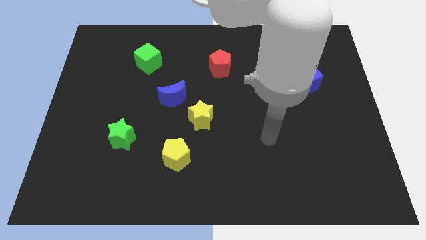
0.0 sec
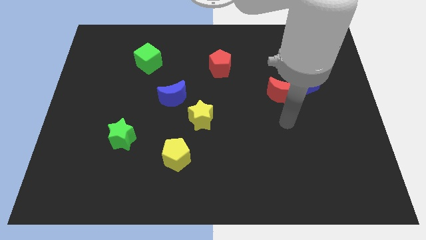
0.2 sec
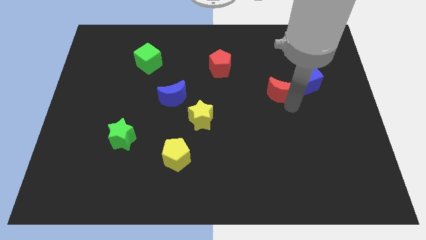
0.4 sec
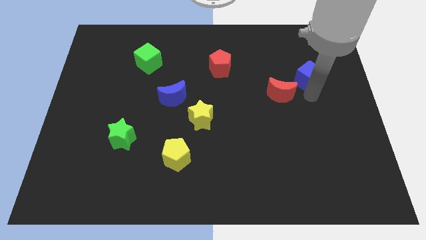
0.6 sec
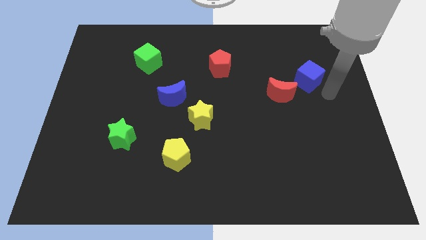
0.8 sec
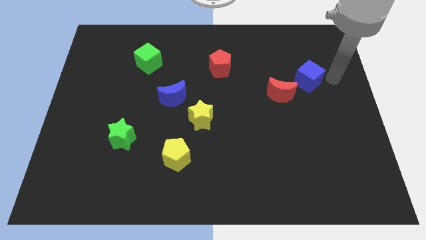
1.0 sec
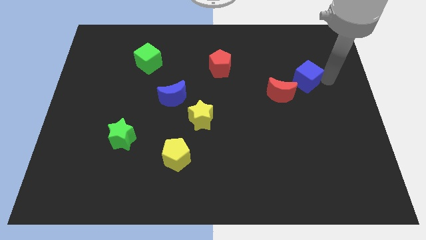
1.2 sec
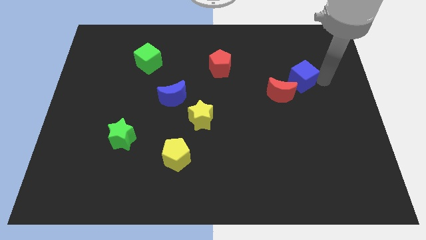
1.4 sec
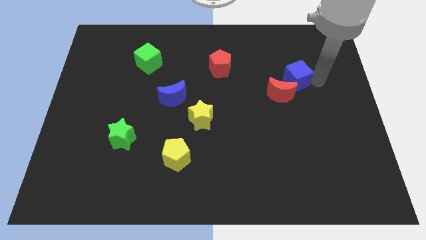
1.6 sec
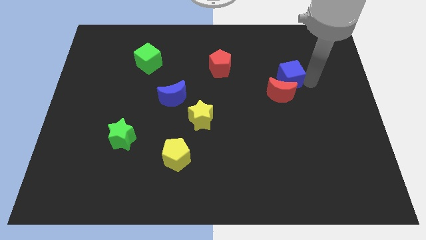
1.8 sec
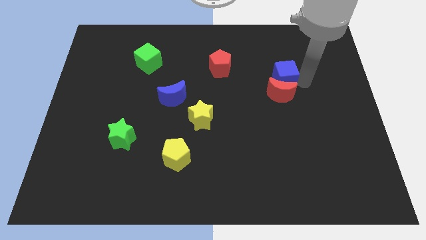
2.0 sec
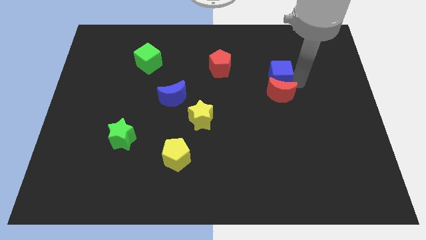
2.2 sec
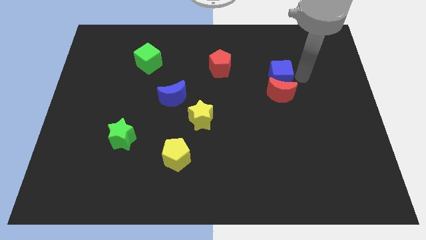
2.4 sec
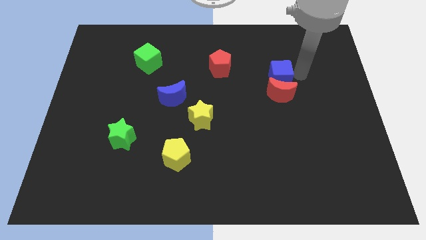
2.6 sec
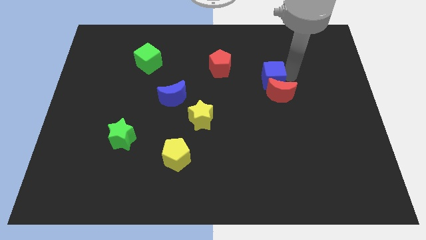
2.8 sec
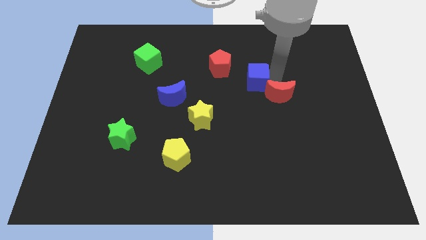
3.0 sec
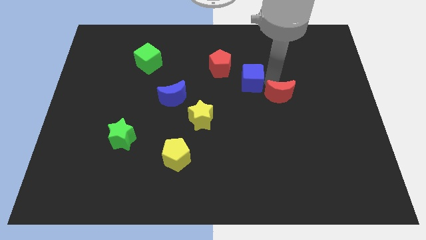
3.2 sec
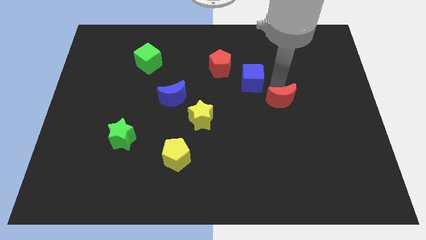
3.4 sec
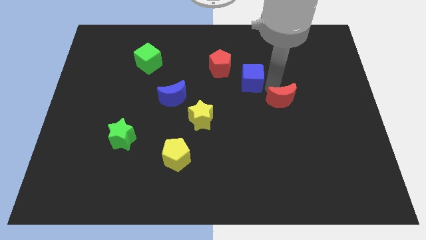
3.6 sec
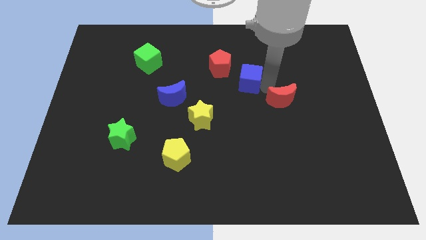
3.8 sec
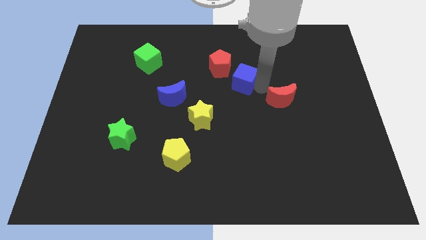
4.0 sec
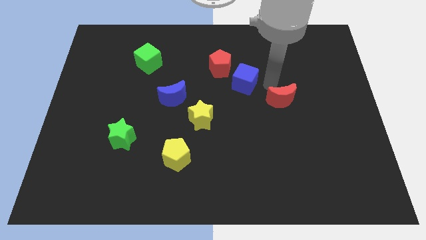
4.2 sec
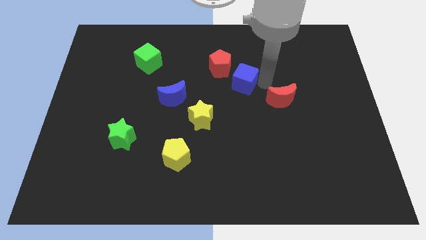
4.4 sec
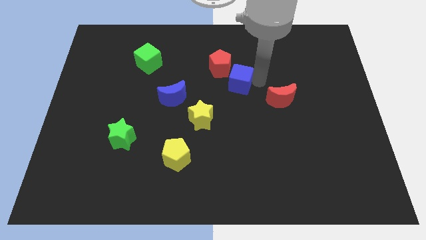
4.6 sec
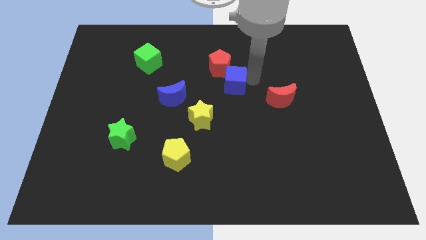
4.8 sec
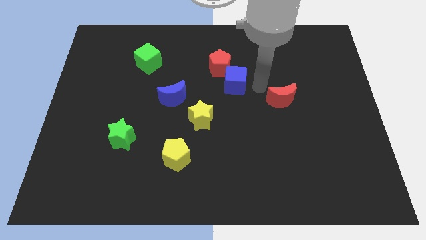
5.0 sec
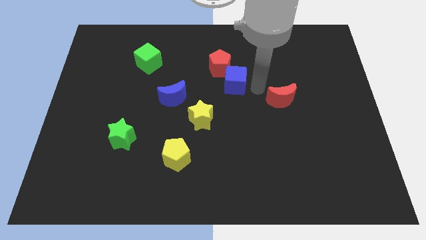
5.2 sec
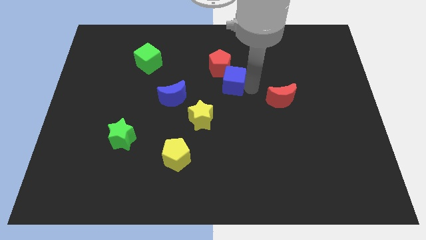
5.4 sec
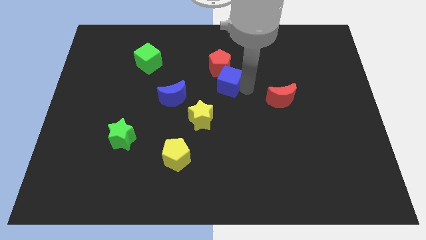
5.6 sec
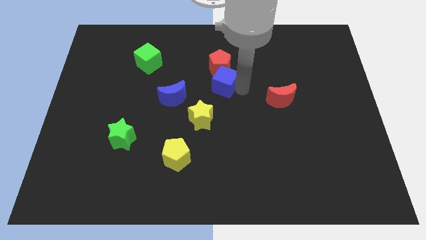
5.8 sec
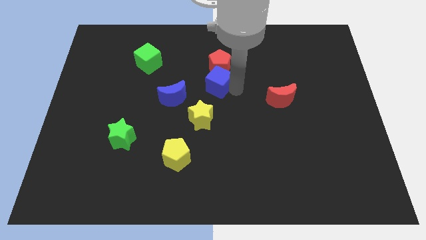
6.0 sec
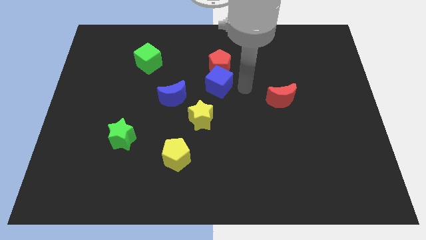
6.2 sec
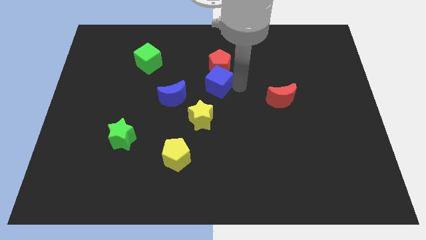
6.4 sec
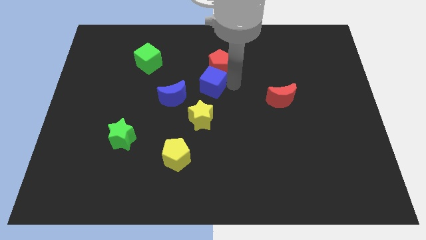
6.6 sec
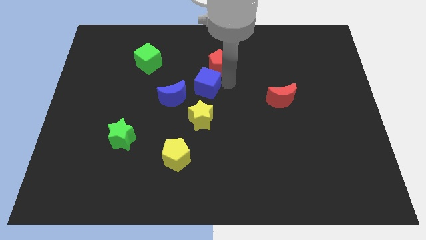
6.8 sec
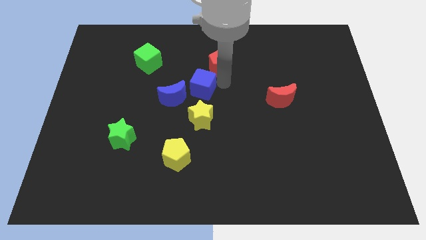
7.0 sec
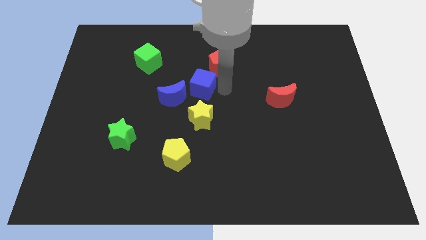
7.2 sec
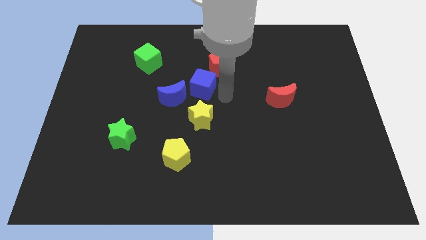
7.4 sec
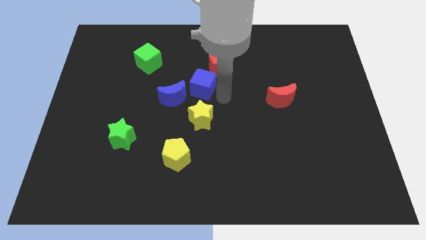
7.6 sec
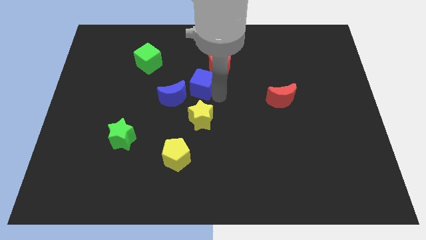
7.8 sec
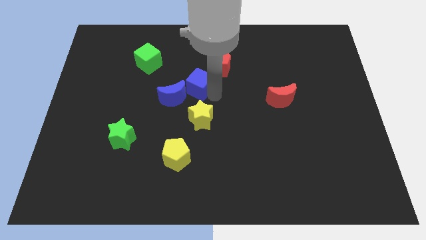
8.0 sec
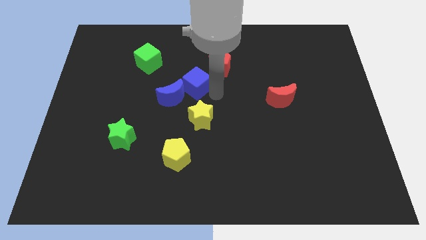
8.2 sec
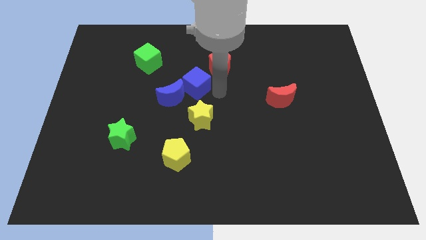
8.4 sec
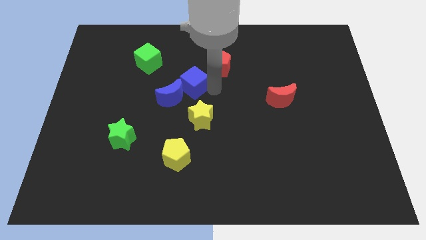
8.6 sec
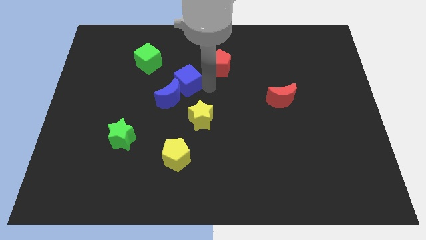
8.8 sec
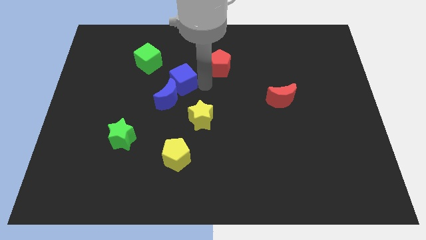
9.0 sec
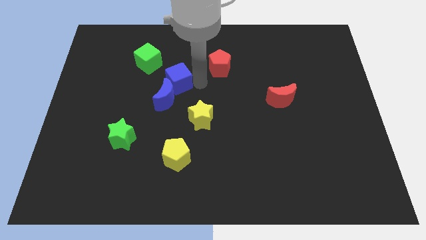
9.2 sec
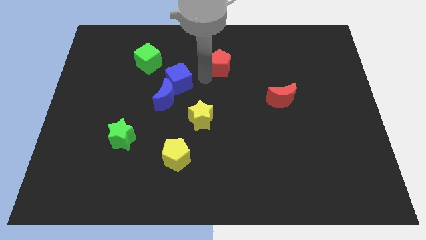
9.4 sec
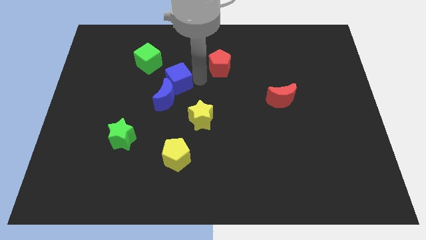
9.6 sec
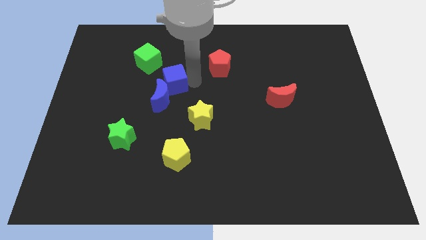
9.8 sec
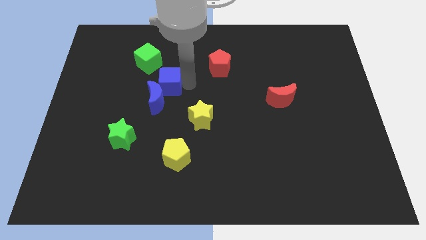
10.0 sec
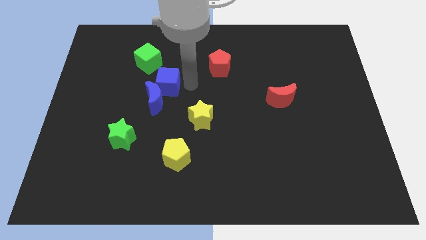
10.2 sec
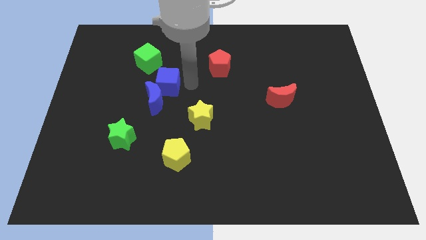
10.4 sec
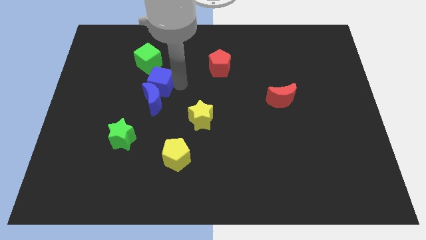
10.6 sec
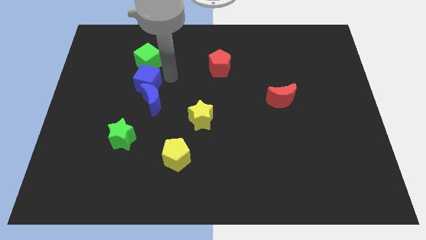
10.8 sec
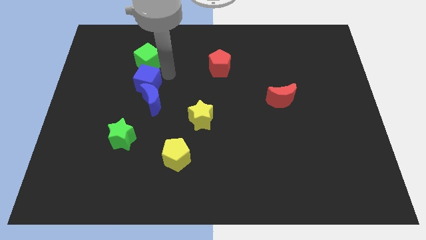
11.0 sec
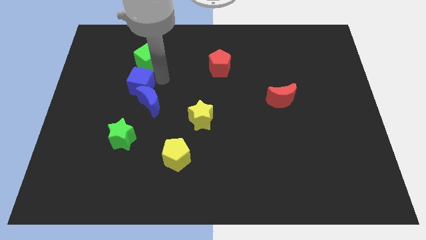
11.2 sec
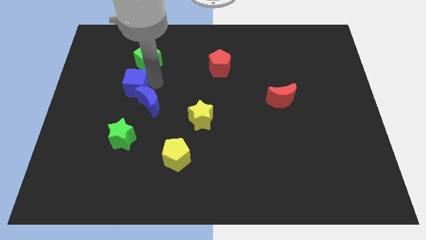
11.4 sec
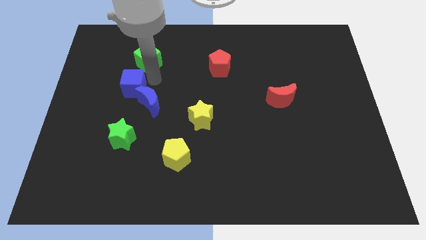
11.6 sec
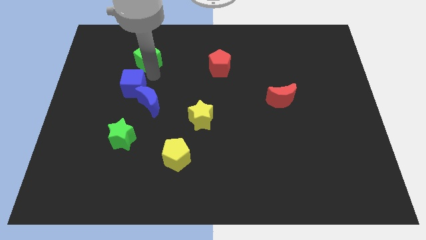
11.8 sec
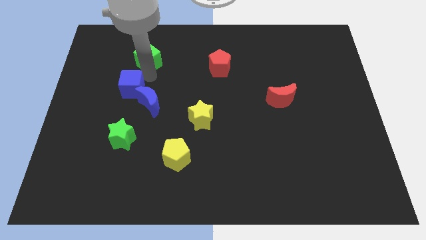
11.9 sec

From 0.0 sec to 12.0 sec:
slide the blue cube left of the blue moon
